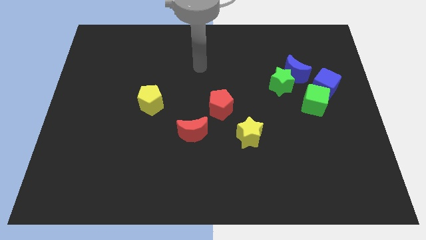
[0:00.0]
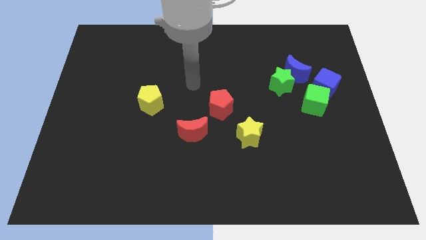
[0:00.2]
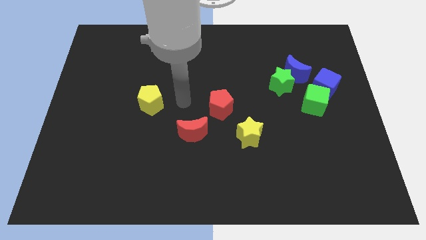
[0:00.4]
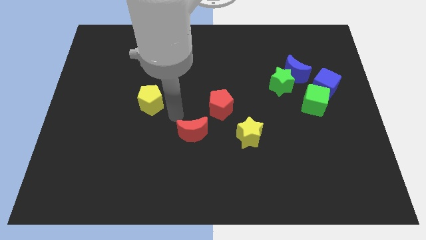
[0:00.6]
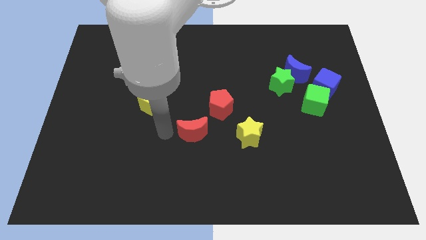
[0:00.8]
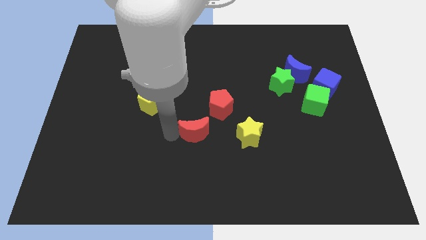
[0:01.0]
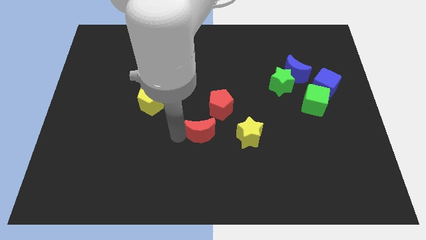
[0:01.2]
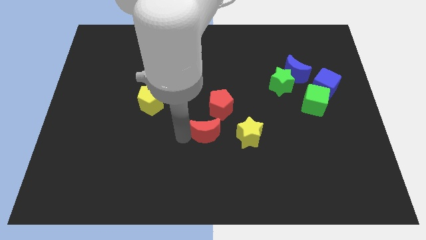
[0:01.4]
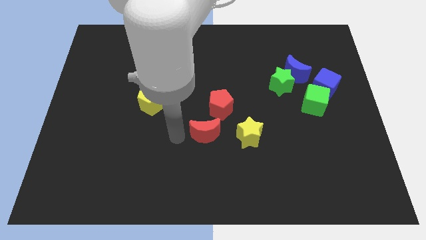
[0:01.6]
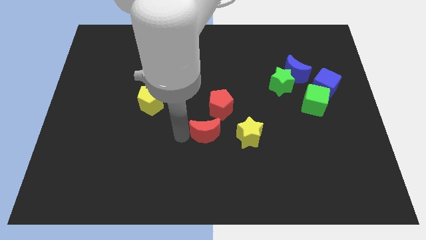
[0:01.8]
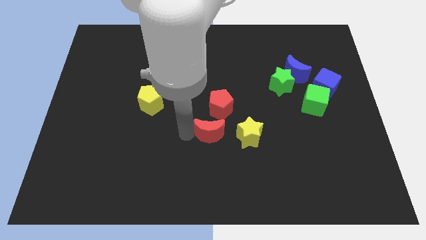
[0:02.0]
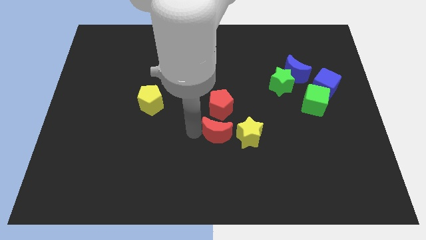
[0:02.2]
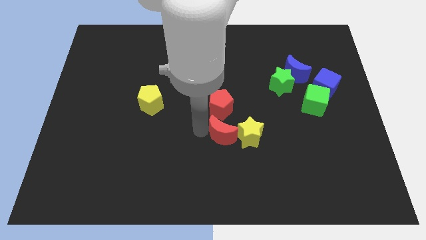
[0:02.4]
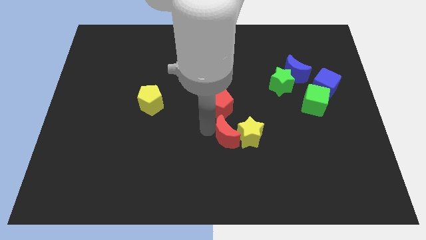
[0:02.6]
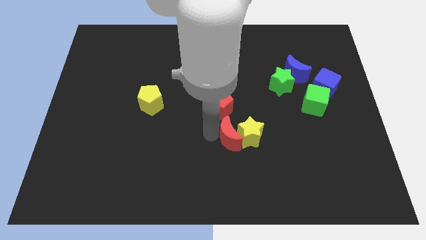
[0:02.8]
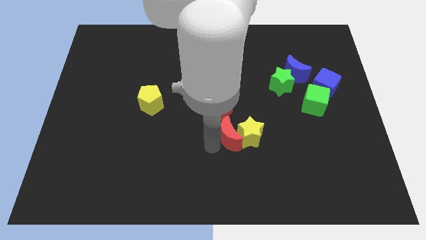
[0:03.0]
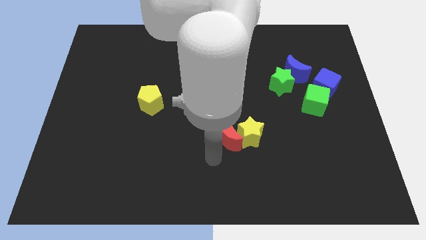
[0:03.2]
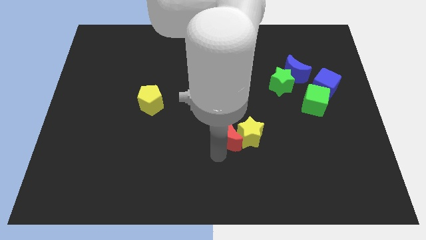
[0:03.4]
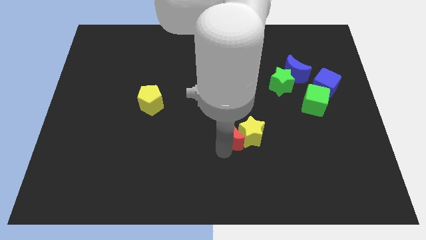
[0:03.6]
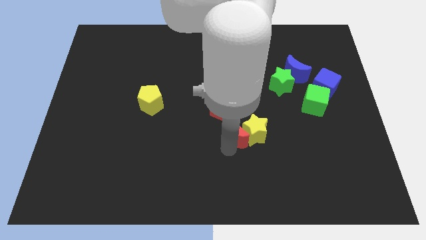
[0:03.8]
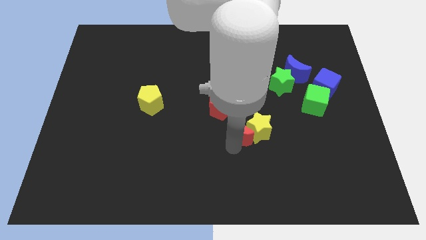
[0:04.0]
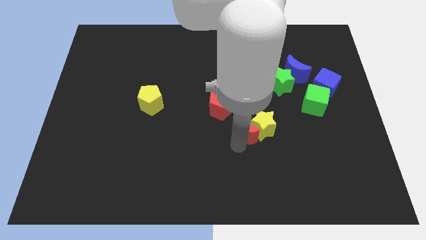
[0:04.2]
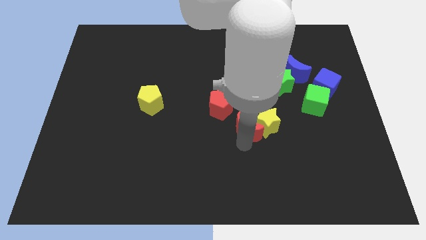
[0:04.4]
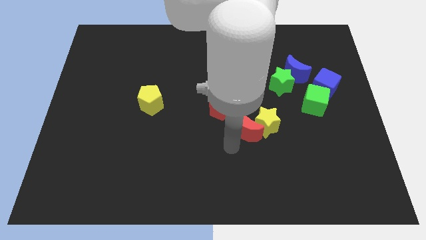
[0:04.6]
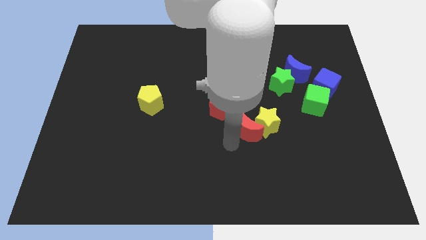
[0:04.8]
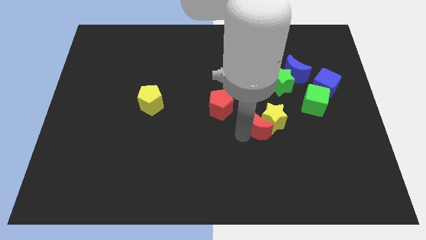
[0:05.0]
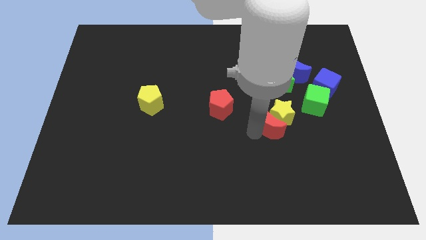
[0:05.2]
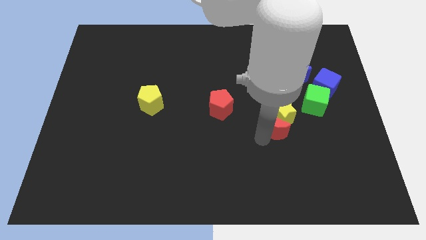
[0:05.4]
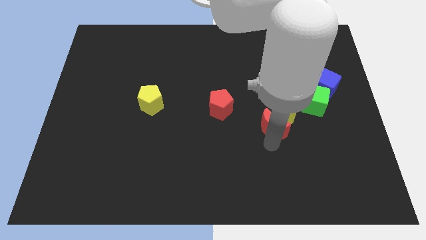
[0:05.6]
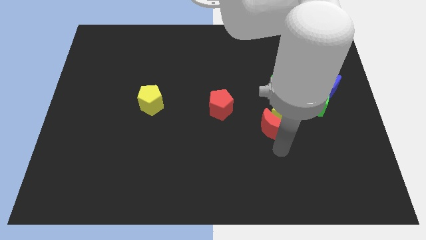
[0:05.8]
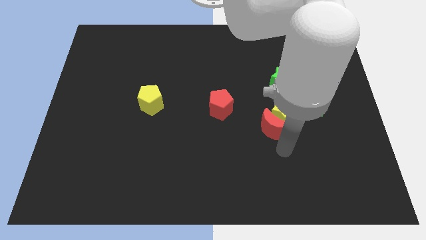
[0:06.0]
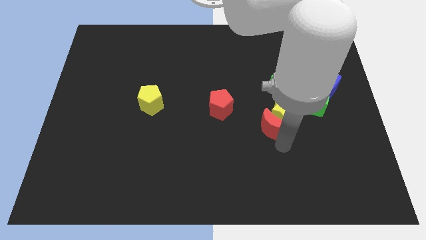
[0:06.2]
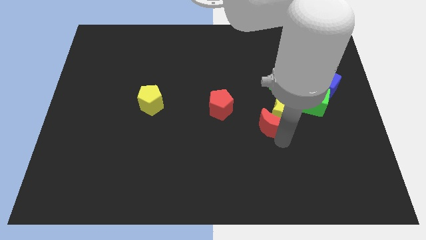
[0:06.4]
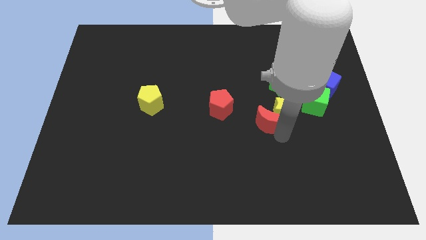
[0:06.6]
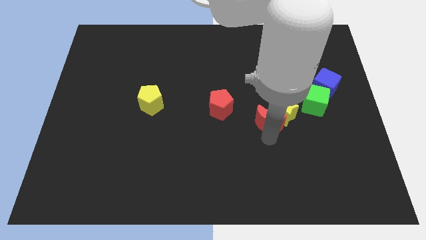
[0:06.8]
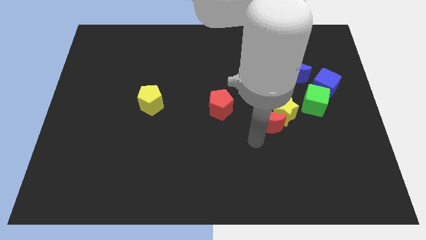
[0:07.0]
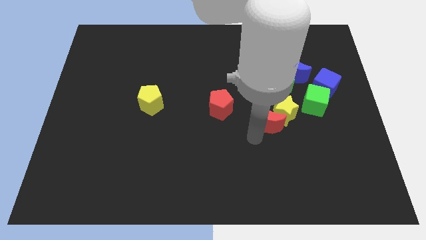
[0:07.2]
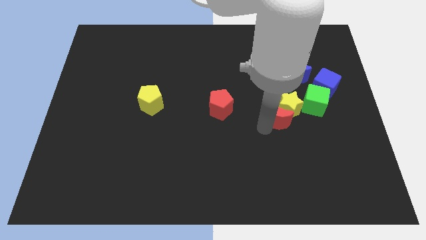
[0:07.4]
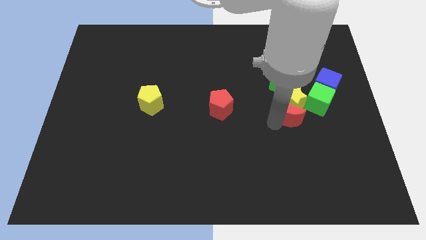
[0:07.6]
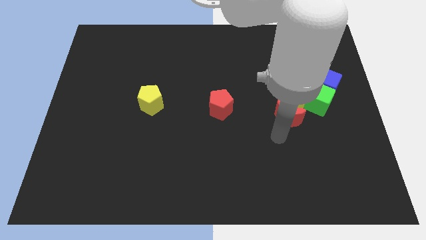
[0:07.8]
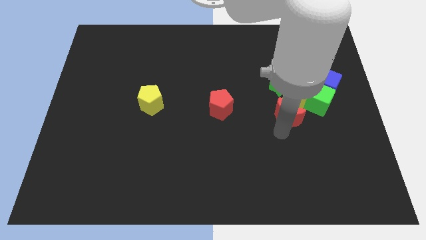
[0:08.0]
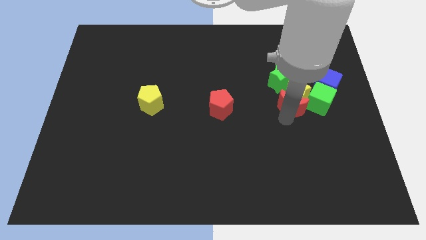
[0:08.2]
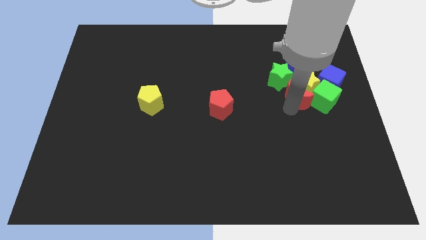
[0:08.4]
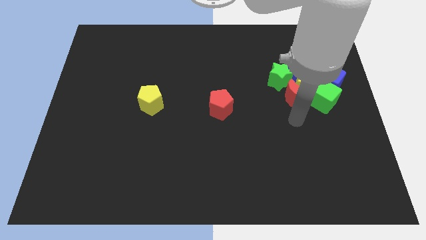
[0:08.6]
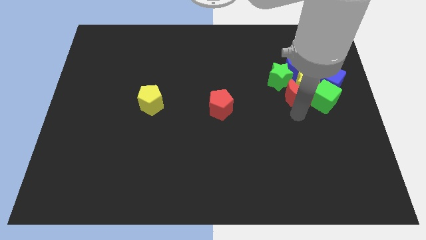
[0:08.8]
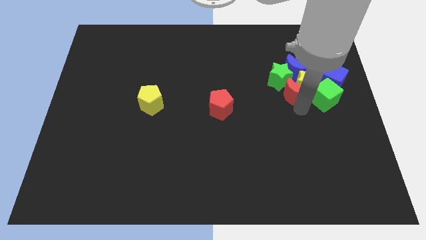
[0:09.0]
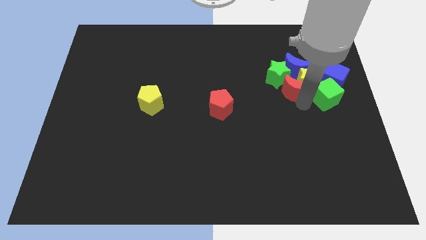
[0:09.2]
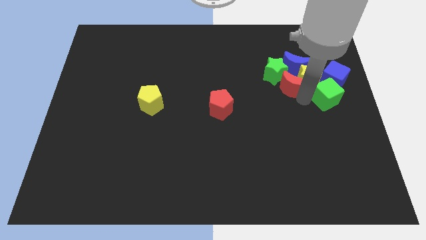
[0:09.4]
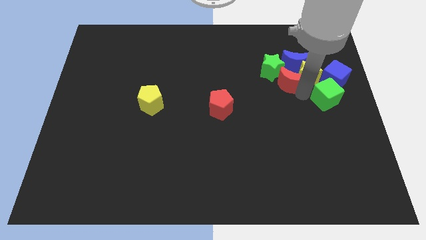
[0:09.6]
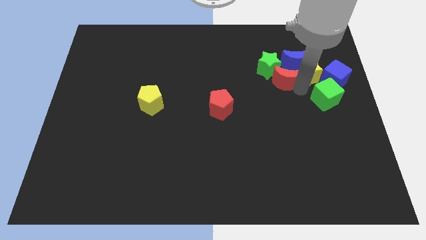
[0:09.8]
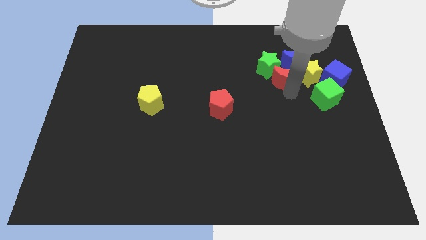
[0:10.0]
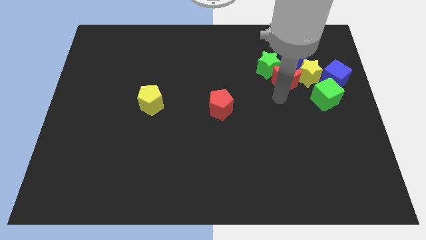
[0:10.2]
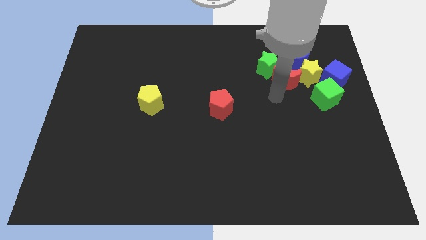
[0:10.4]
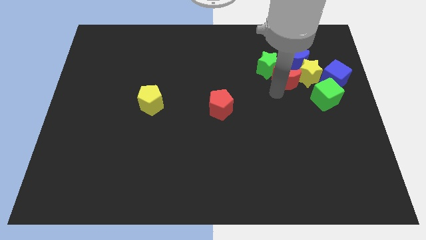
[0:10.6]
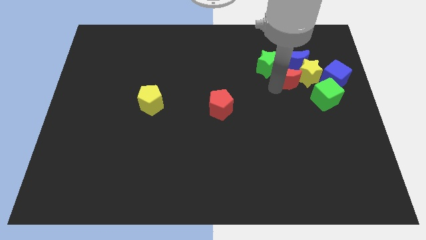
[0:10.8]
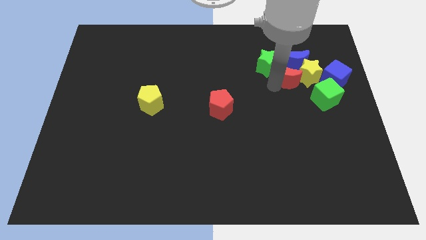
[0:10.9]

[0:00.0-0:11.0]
push the red moon to the blue moon

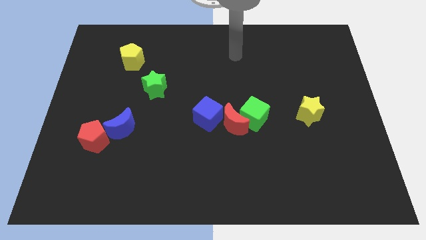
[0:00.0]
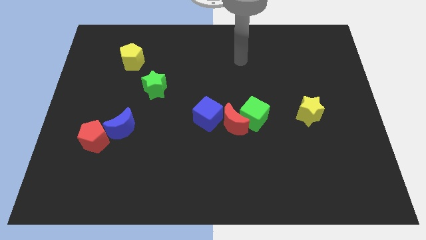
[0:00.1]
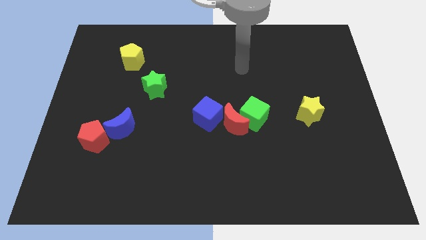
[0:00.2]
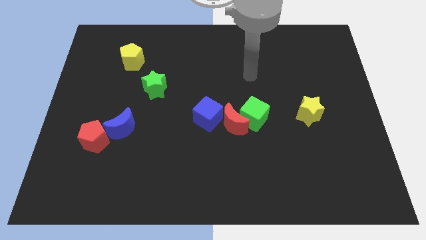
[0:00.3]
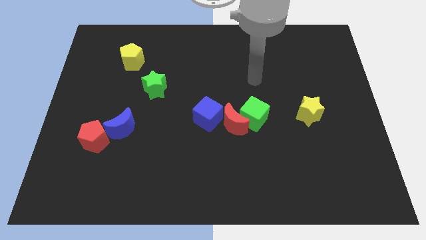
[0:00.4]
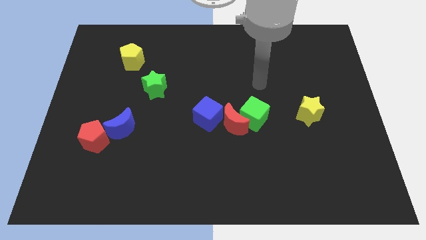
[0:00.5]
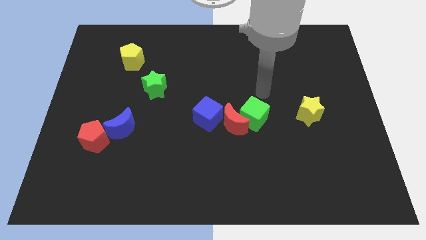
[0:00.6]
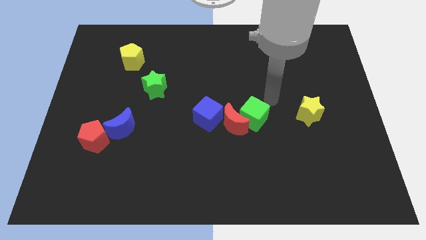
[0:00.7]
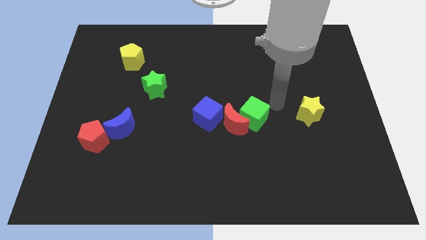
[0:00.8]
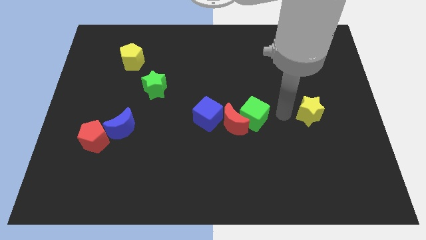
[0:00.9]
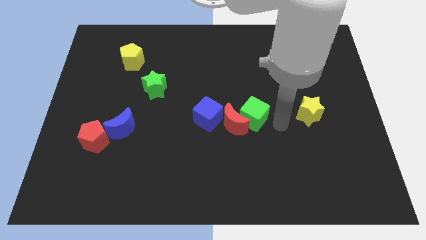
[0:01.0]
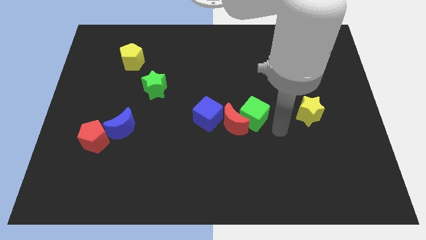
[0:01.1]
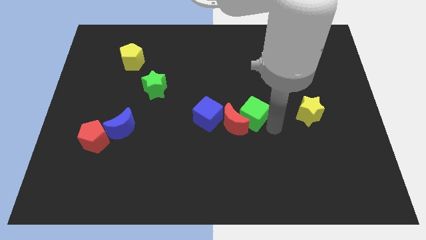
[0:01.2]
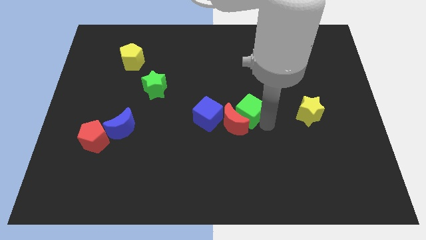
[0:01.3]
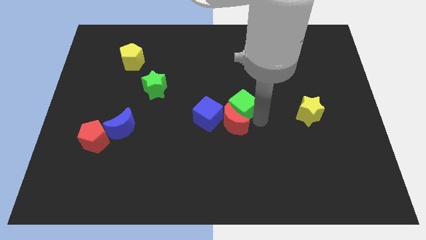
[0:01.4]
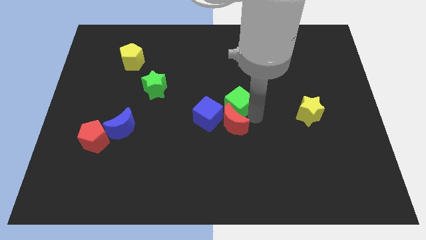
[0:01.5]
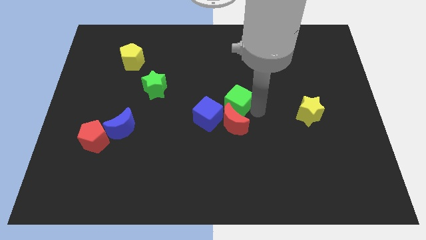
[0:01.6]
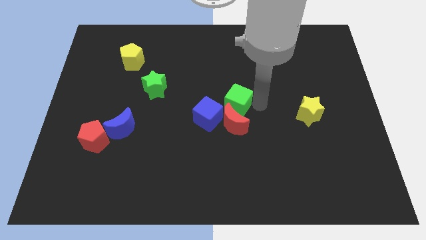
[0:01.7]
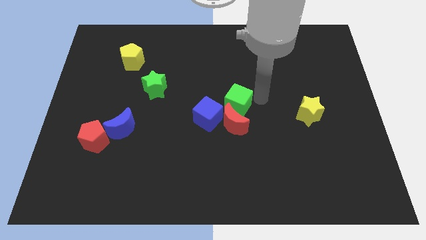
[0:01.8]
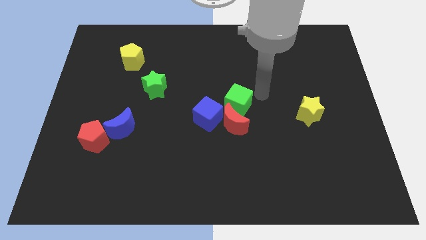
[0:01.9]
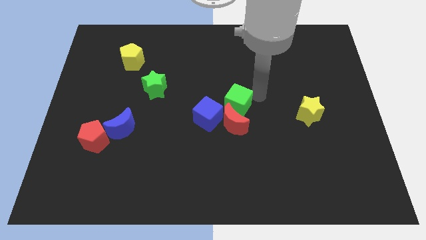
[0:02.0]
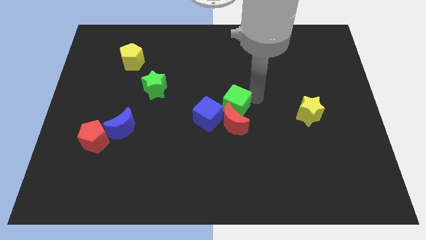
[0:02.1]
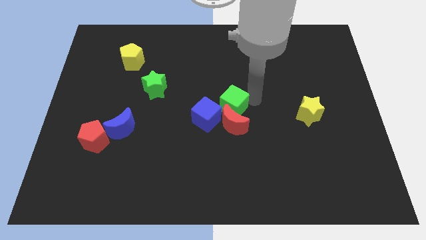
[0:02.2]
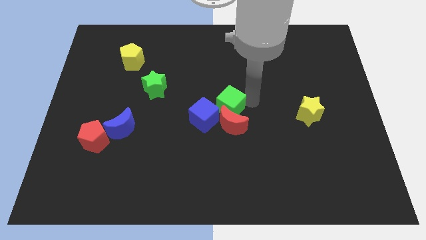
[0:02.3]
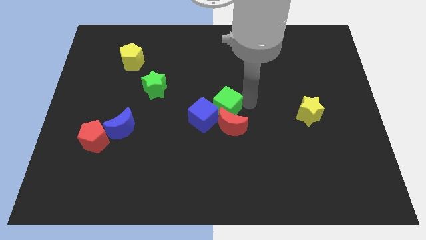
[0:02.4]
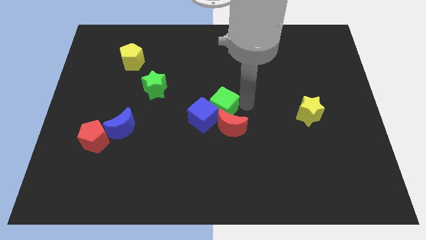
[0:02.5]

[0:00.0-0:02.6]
move the green cube towards the blue cube
